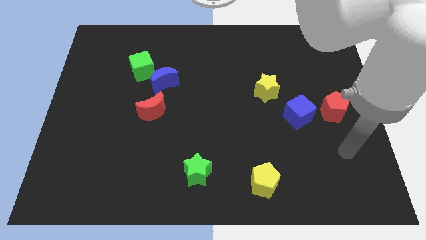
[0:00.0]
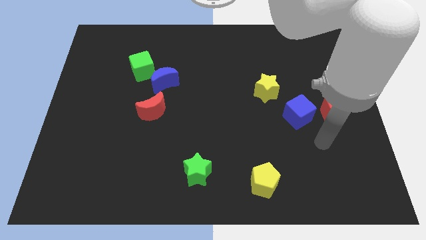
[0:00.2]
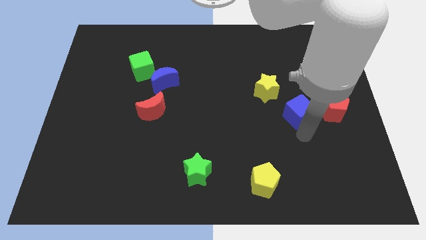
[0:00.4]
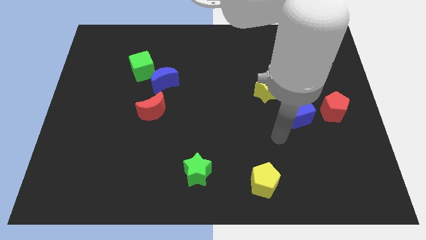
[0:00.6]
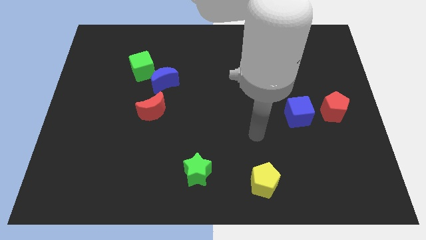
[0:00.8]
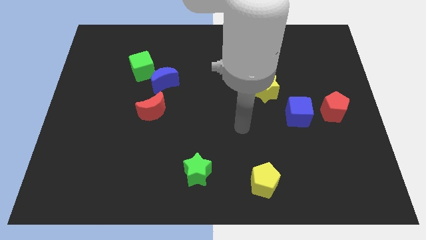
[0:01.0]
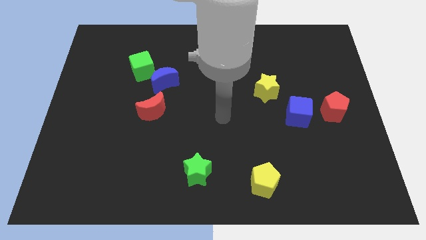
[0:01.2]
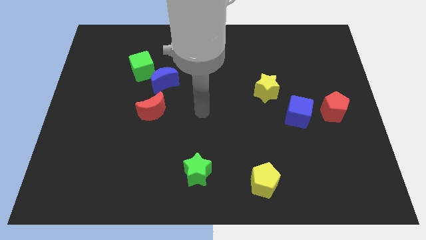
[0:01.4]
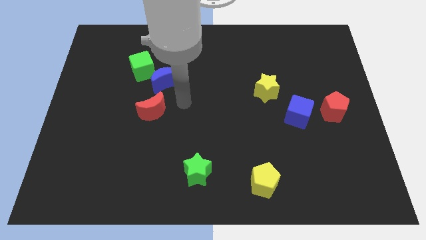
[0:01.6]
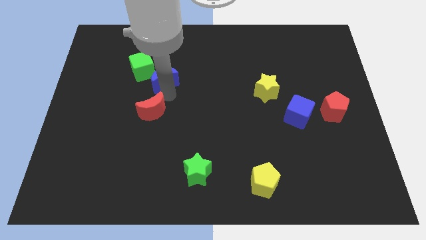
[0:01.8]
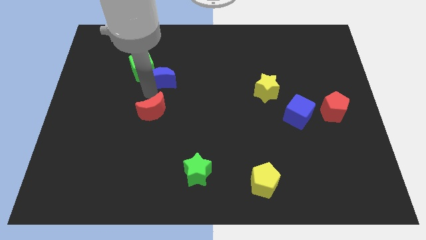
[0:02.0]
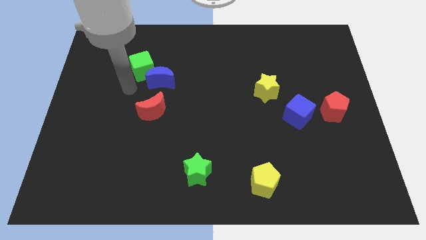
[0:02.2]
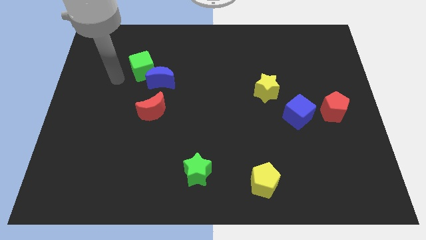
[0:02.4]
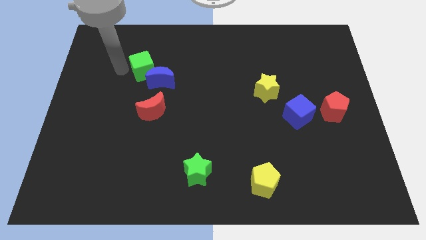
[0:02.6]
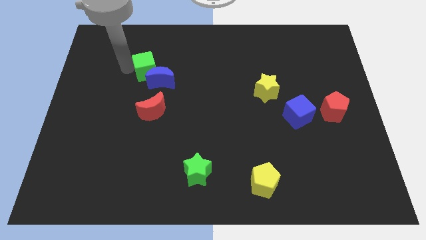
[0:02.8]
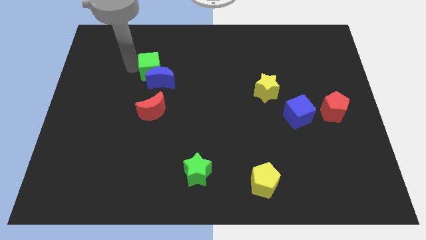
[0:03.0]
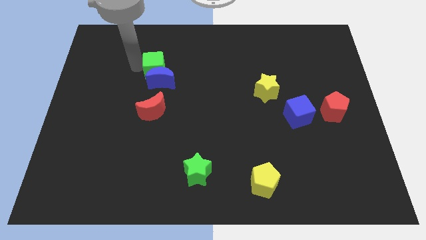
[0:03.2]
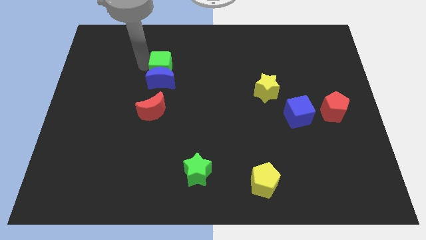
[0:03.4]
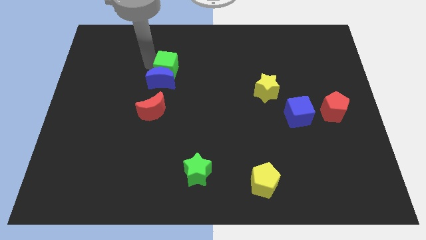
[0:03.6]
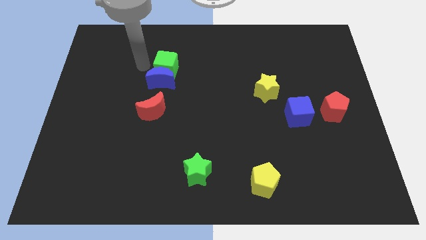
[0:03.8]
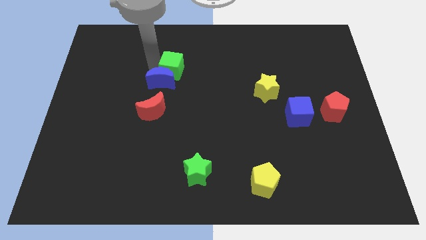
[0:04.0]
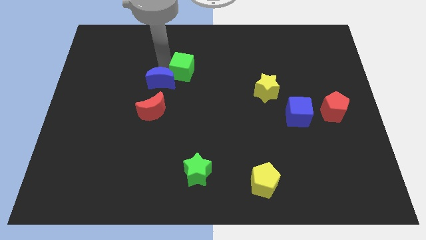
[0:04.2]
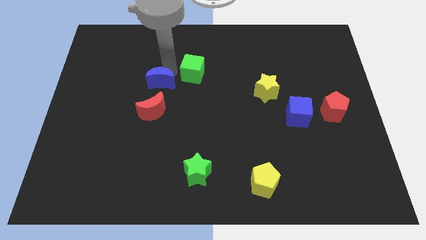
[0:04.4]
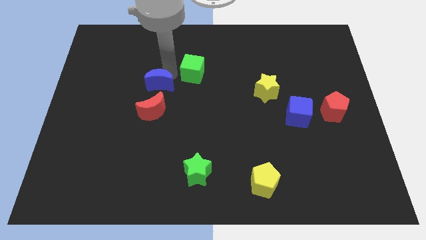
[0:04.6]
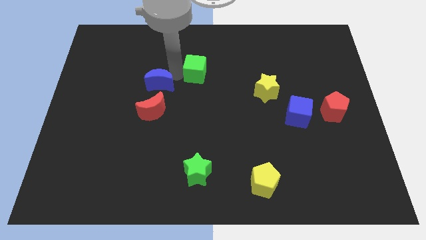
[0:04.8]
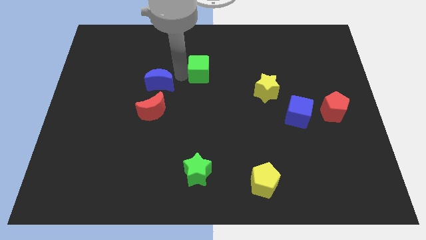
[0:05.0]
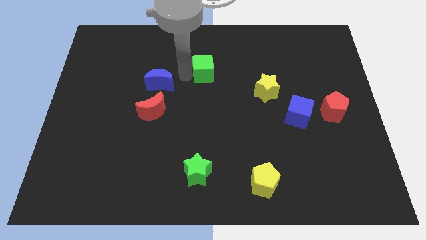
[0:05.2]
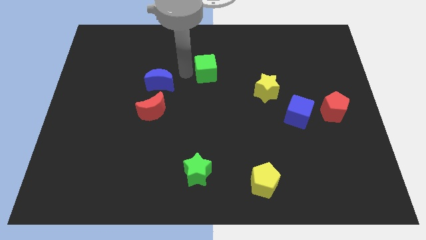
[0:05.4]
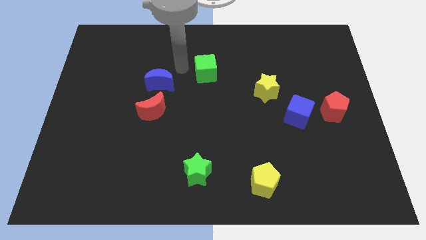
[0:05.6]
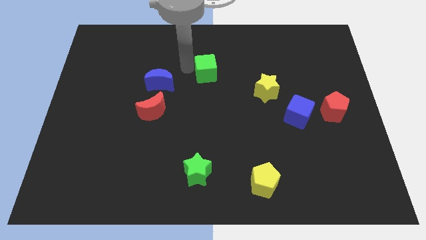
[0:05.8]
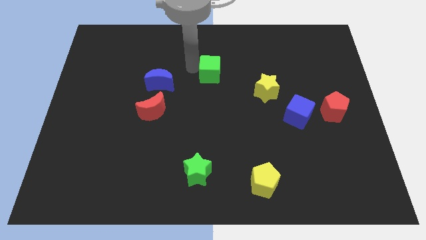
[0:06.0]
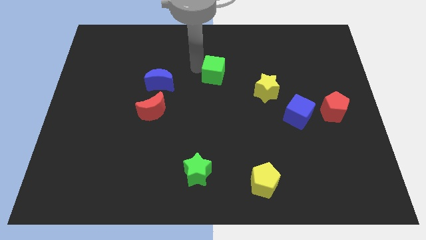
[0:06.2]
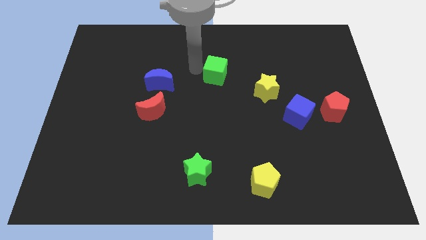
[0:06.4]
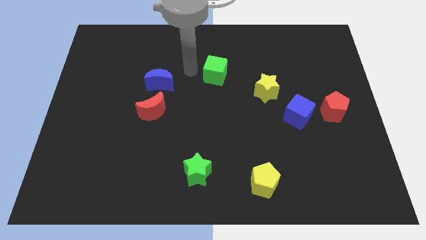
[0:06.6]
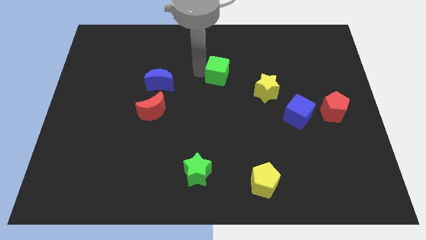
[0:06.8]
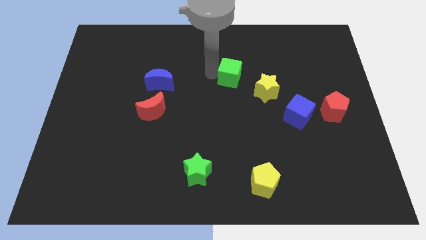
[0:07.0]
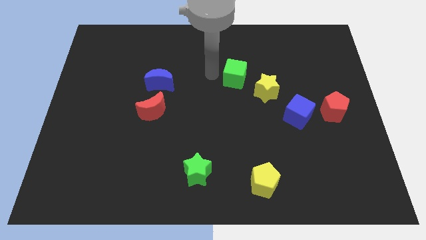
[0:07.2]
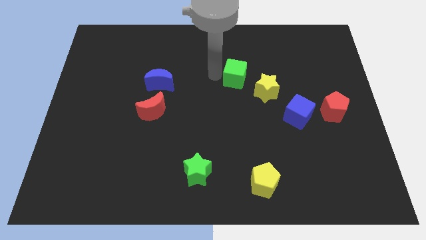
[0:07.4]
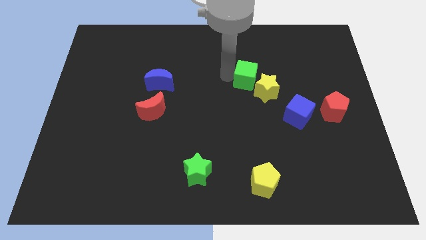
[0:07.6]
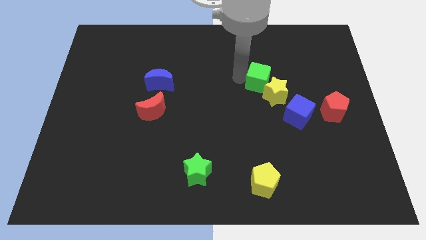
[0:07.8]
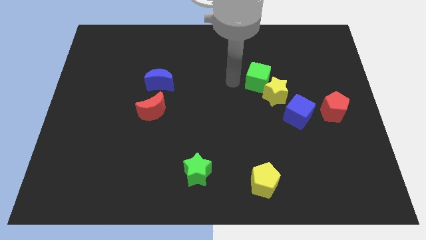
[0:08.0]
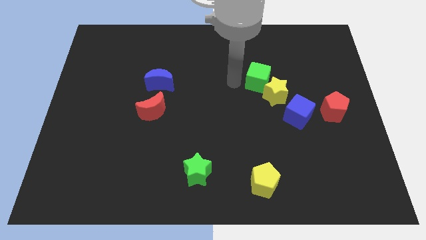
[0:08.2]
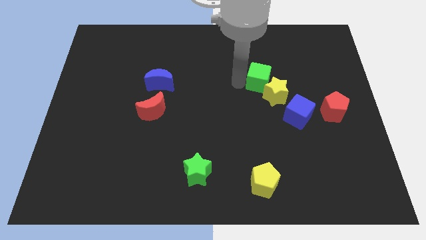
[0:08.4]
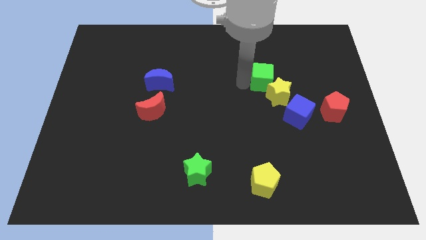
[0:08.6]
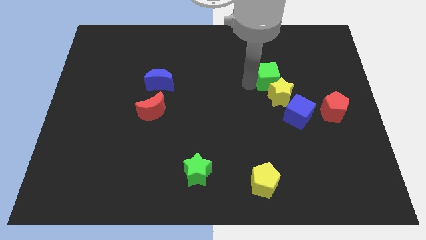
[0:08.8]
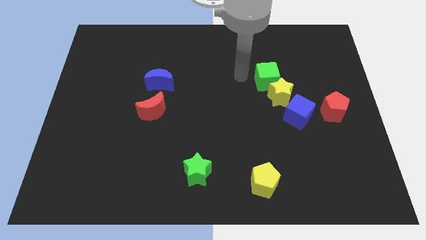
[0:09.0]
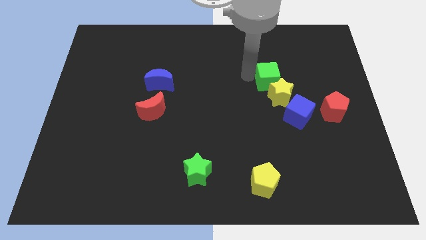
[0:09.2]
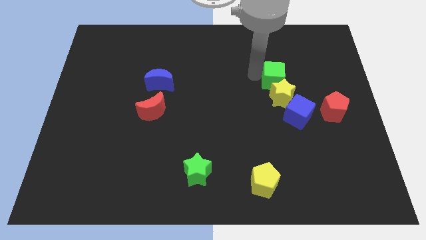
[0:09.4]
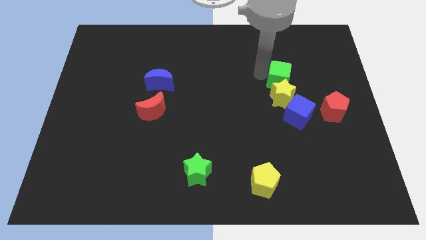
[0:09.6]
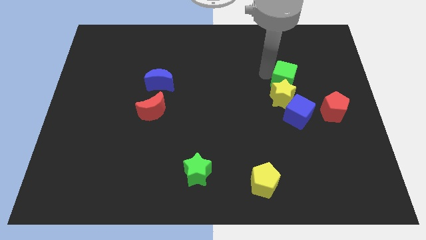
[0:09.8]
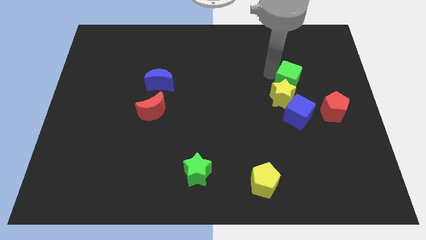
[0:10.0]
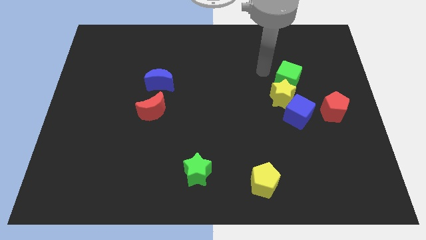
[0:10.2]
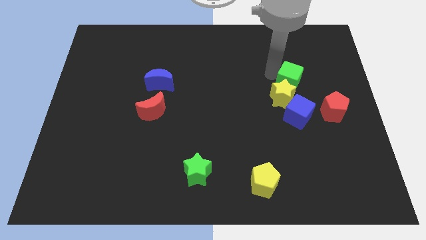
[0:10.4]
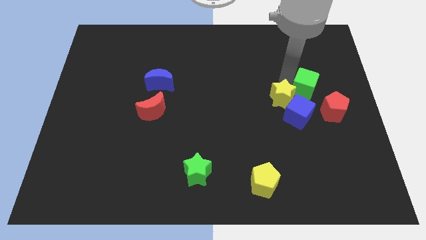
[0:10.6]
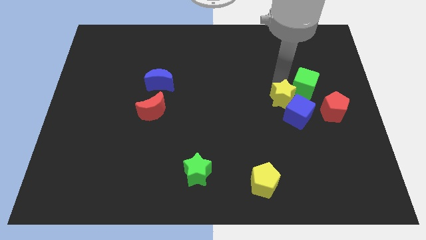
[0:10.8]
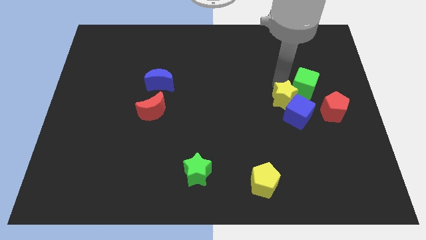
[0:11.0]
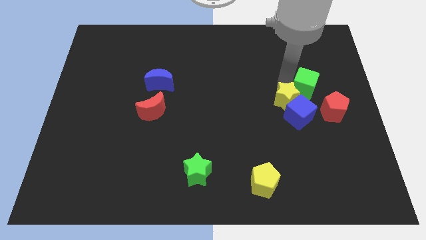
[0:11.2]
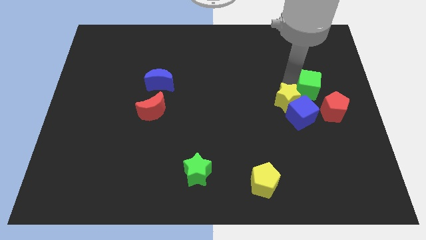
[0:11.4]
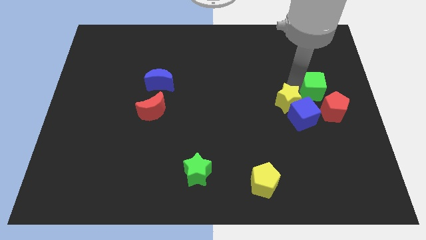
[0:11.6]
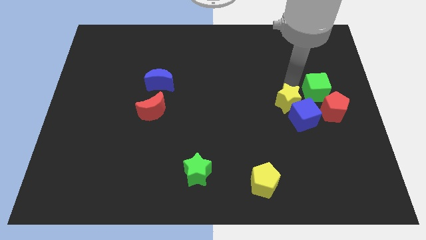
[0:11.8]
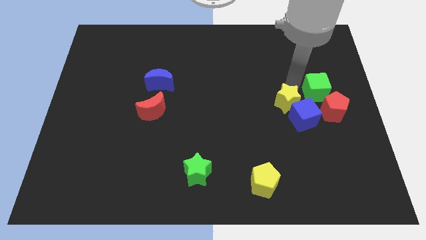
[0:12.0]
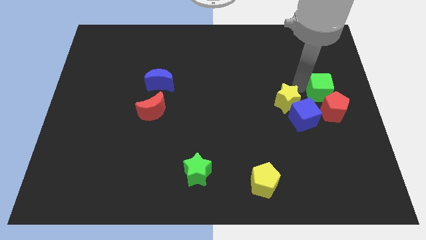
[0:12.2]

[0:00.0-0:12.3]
slide the green cube to the center right

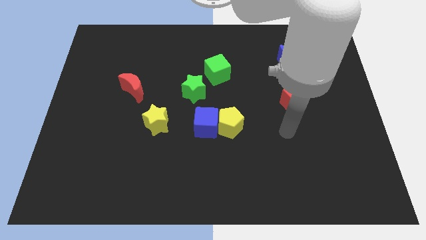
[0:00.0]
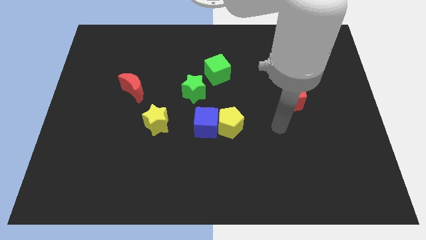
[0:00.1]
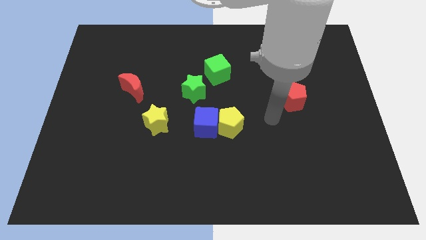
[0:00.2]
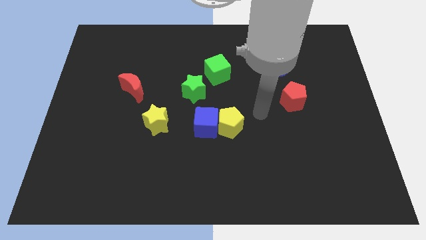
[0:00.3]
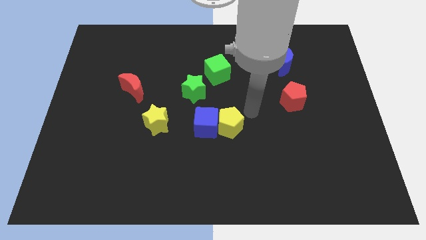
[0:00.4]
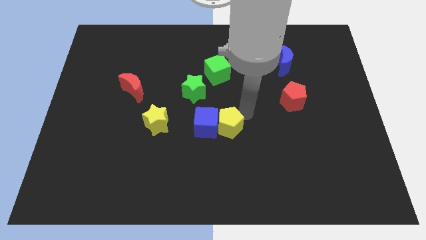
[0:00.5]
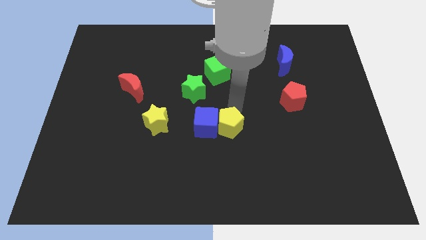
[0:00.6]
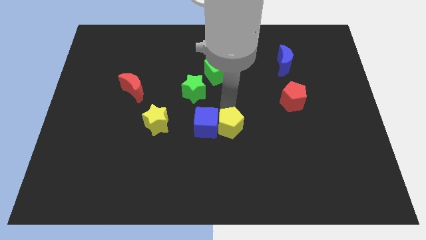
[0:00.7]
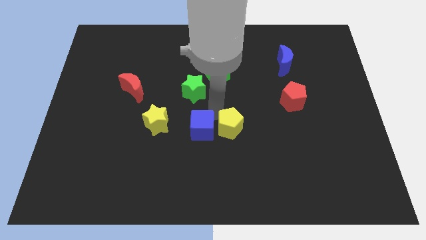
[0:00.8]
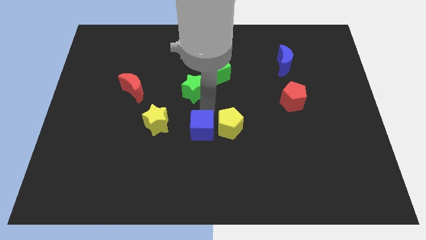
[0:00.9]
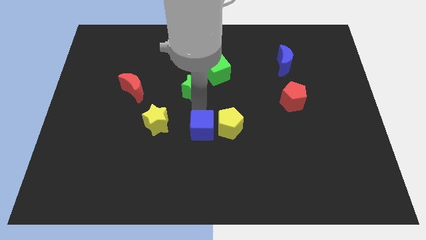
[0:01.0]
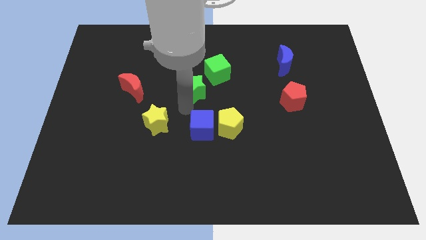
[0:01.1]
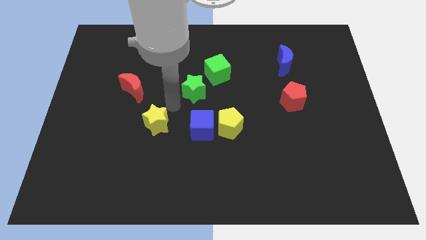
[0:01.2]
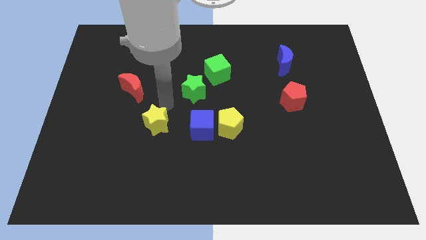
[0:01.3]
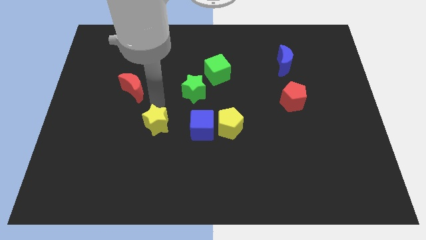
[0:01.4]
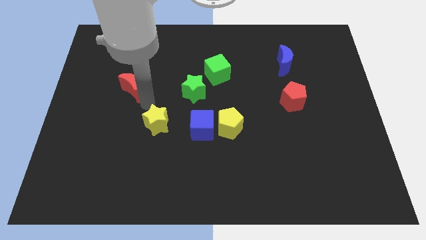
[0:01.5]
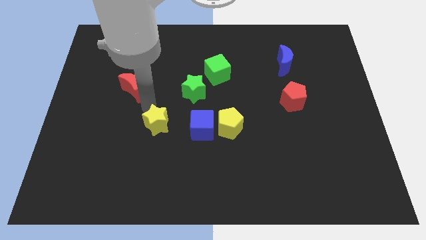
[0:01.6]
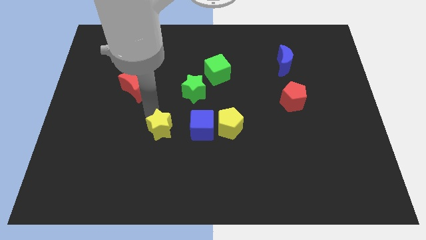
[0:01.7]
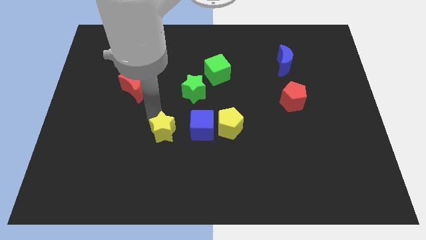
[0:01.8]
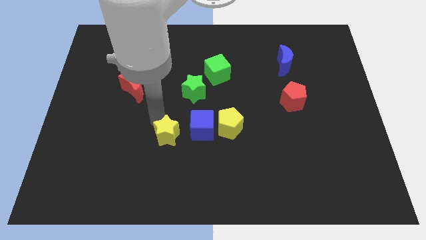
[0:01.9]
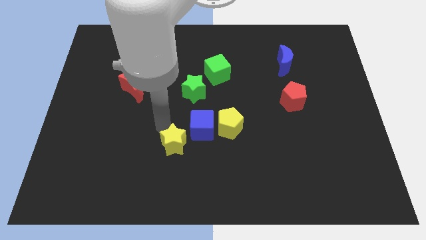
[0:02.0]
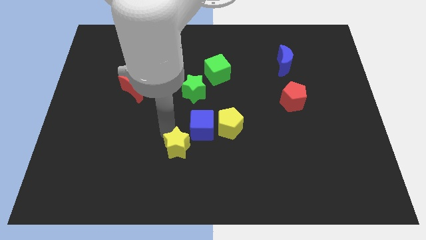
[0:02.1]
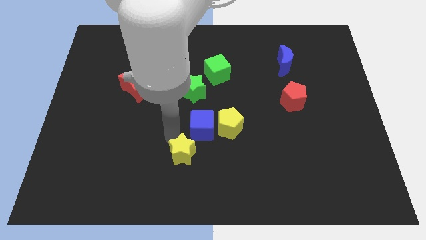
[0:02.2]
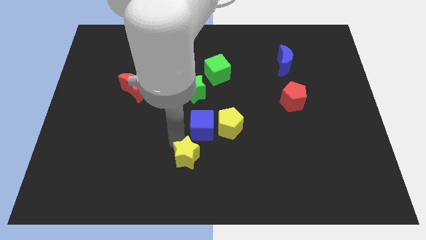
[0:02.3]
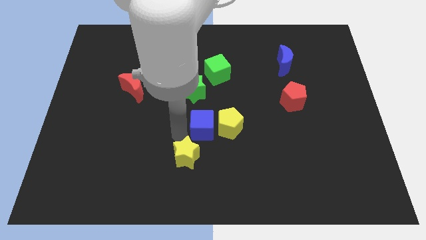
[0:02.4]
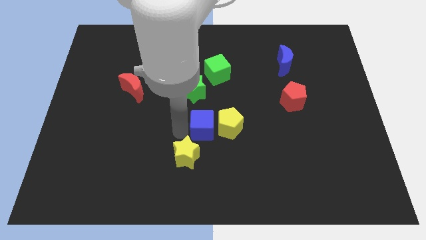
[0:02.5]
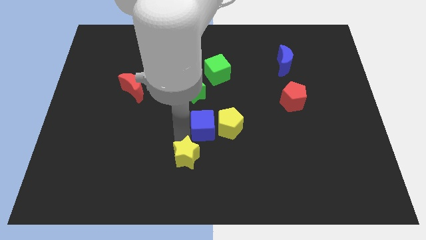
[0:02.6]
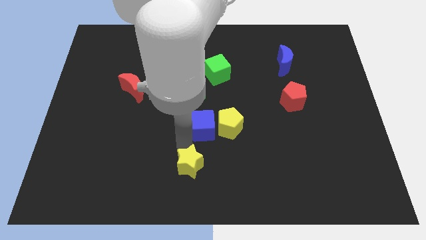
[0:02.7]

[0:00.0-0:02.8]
put the yellow star to the bottom
